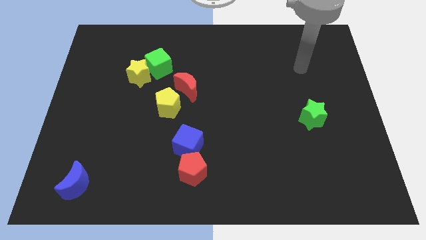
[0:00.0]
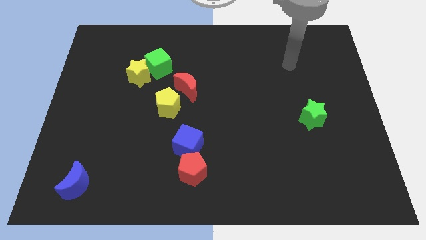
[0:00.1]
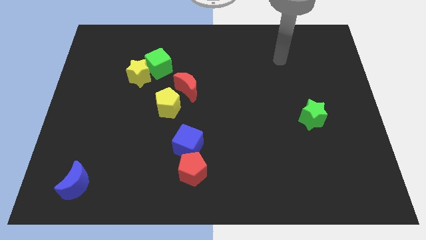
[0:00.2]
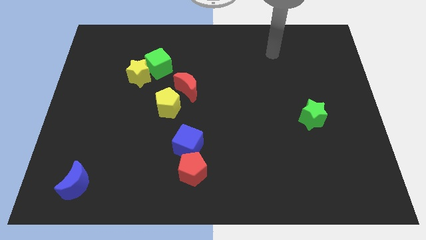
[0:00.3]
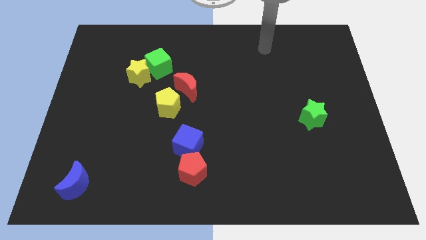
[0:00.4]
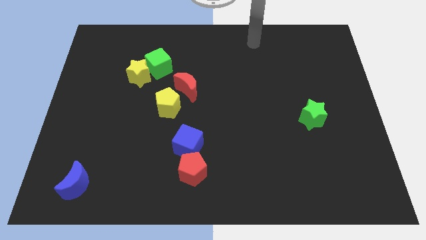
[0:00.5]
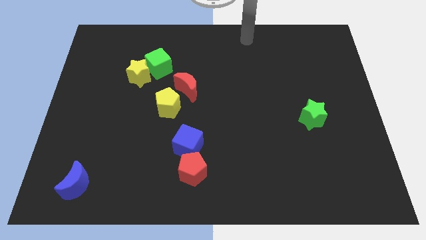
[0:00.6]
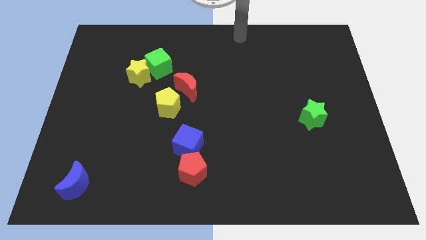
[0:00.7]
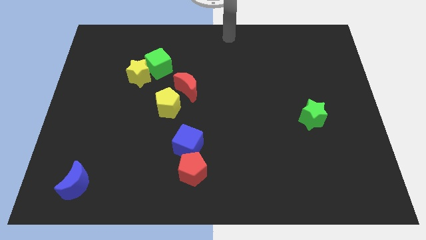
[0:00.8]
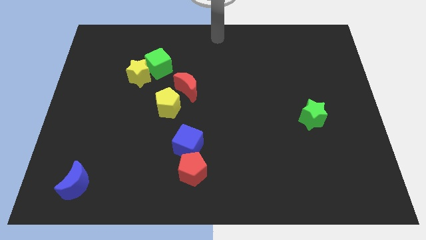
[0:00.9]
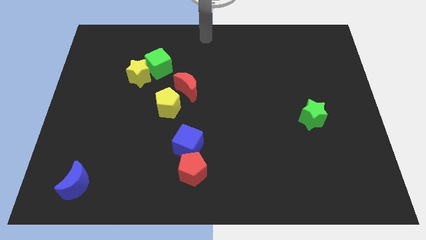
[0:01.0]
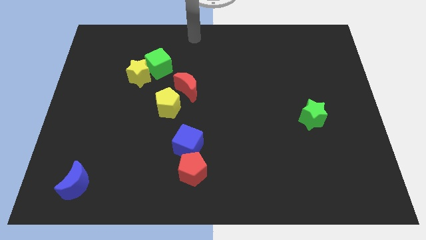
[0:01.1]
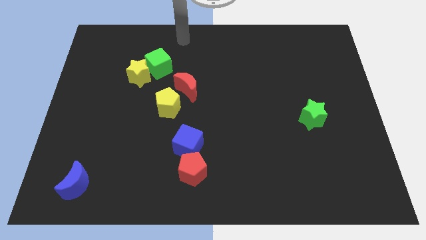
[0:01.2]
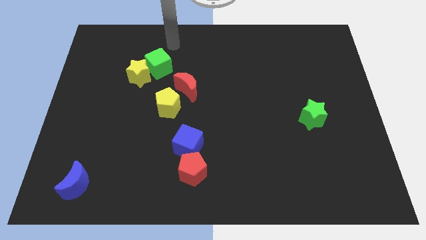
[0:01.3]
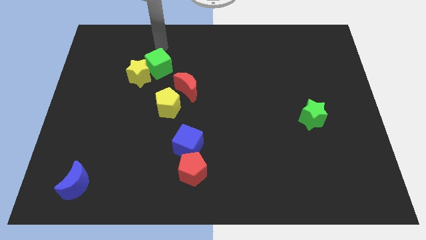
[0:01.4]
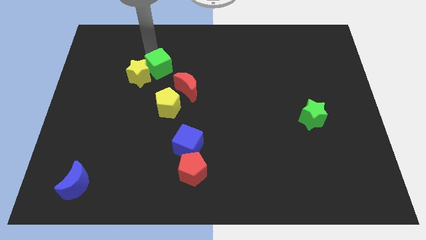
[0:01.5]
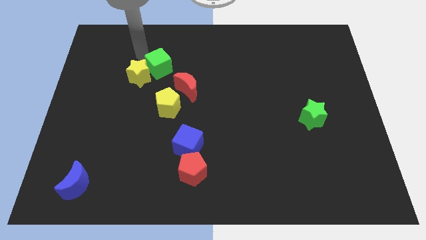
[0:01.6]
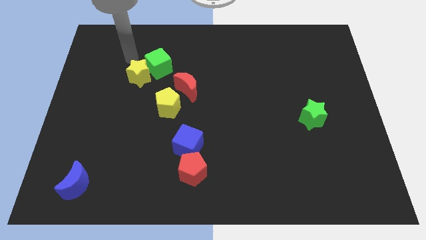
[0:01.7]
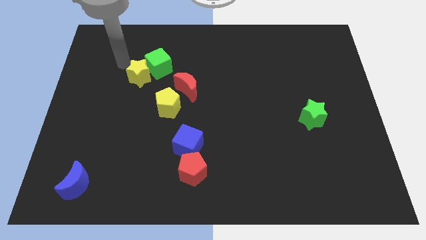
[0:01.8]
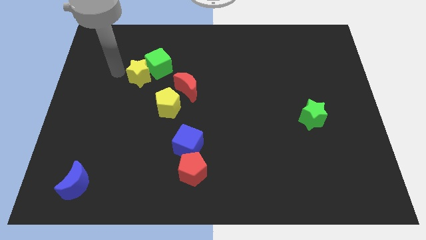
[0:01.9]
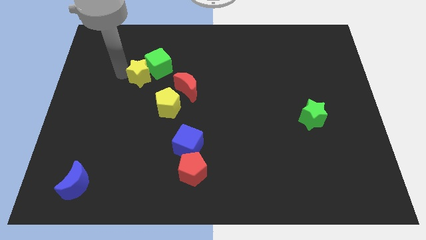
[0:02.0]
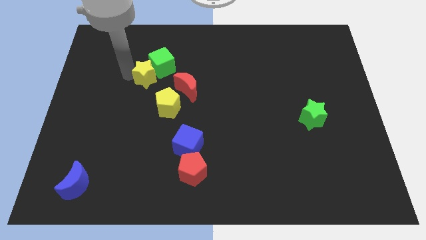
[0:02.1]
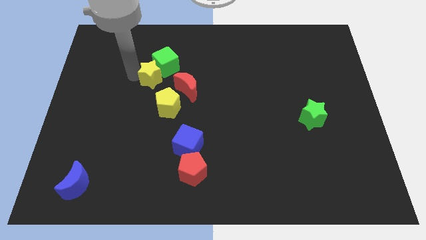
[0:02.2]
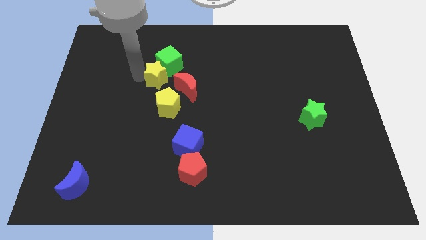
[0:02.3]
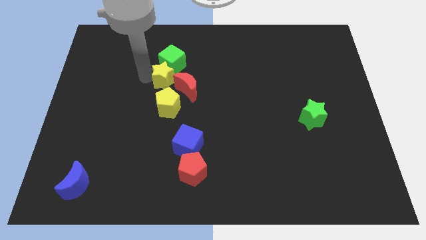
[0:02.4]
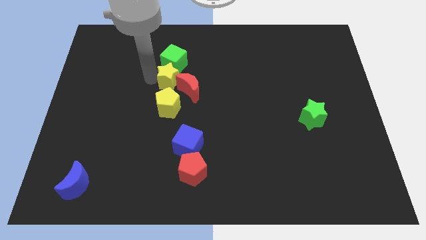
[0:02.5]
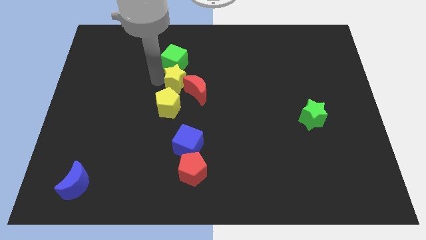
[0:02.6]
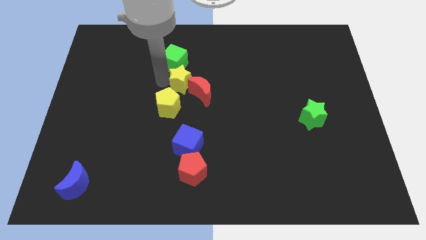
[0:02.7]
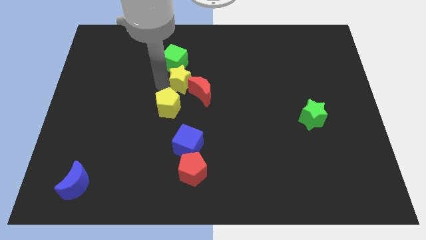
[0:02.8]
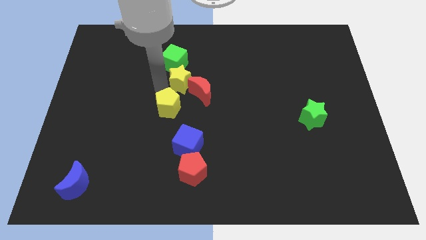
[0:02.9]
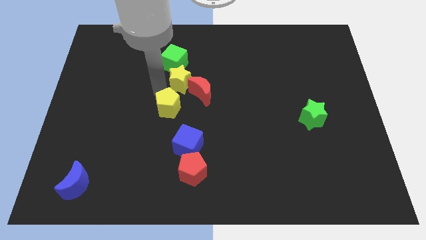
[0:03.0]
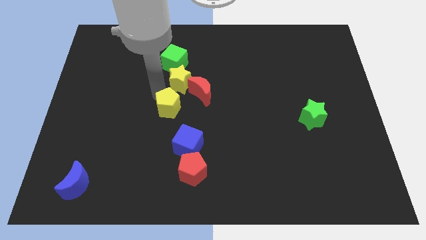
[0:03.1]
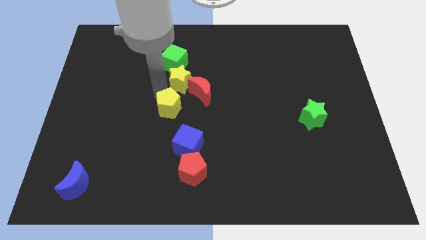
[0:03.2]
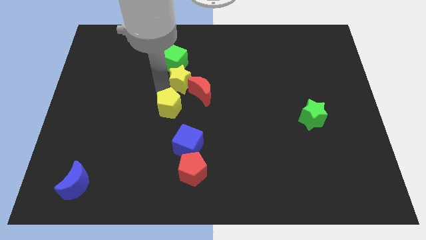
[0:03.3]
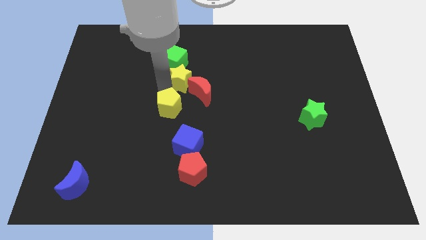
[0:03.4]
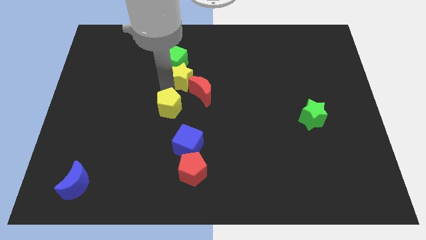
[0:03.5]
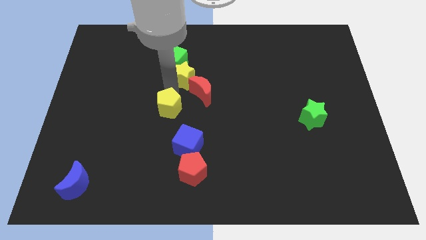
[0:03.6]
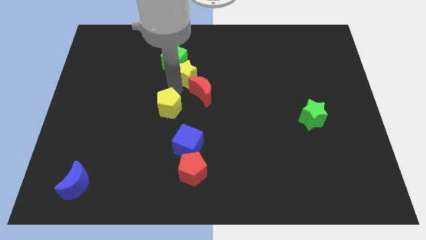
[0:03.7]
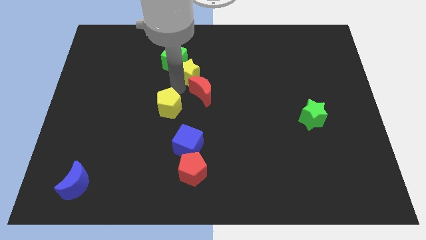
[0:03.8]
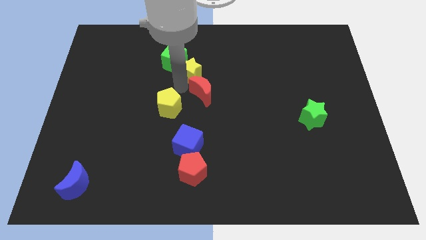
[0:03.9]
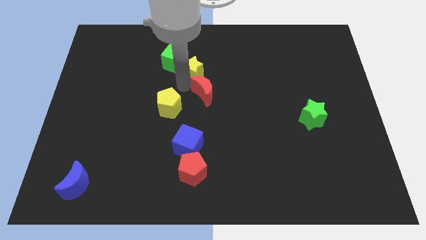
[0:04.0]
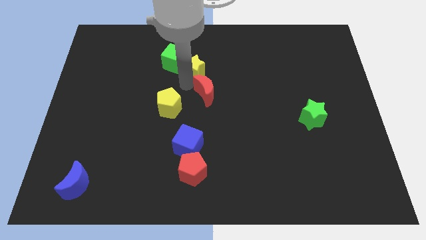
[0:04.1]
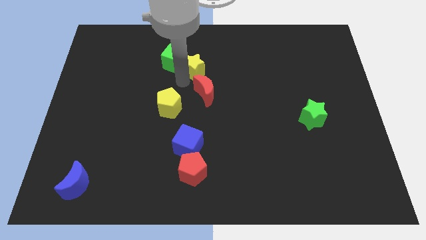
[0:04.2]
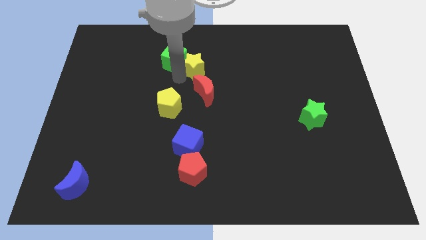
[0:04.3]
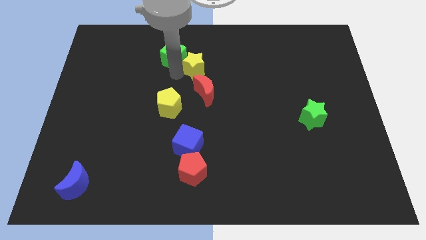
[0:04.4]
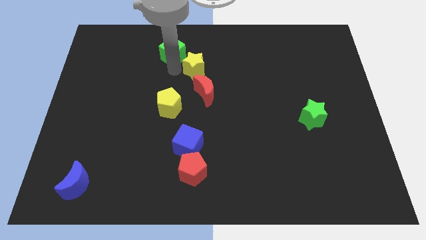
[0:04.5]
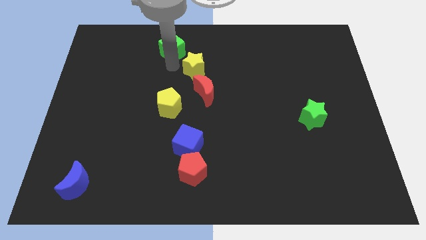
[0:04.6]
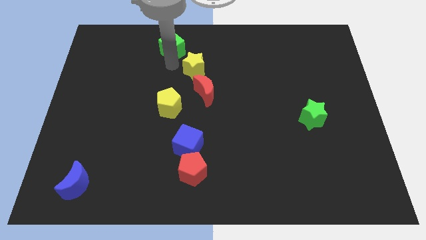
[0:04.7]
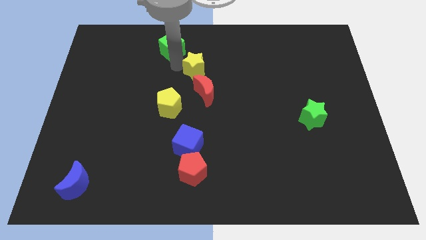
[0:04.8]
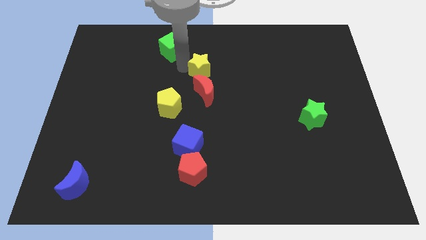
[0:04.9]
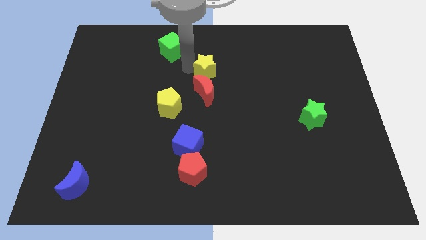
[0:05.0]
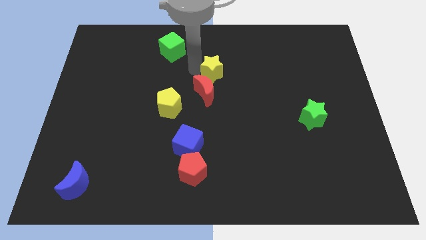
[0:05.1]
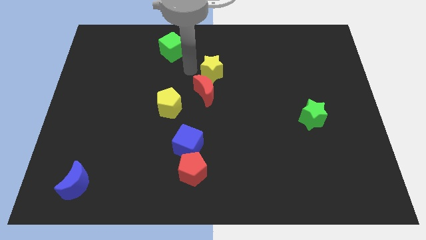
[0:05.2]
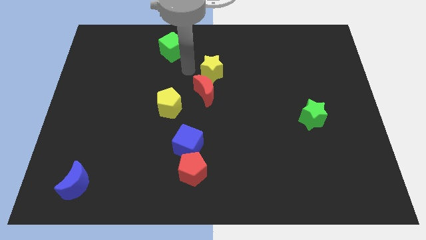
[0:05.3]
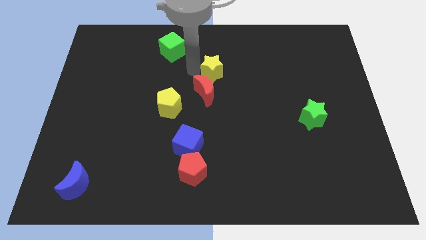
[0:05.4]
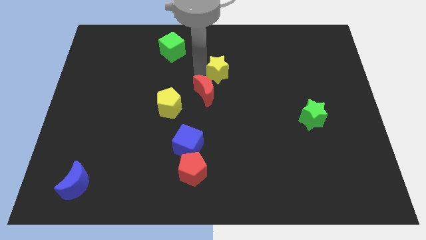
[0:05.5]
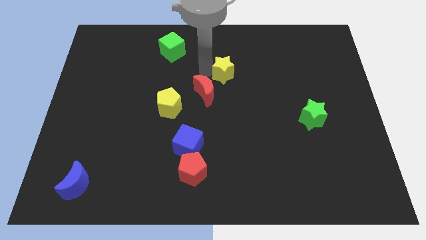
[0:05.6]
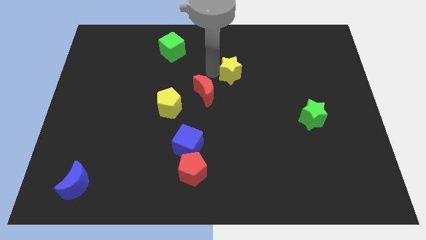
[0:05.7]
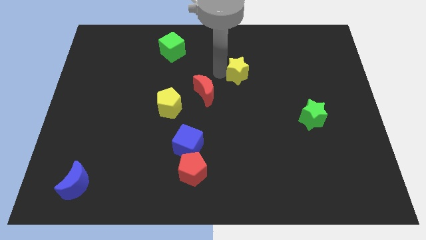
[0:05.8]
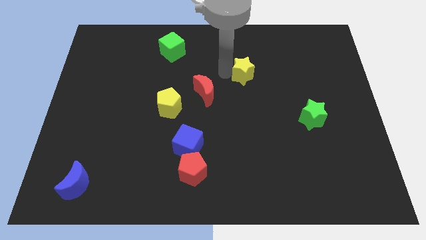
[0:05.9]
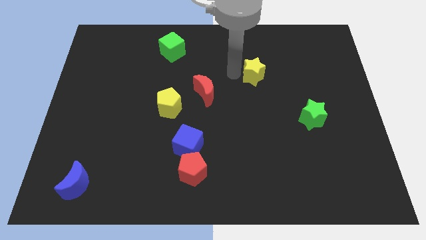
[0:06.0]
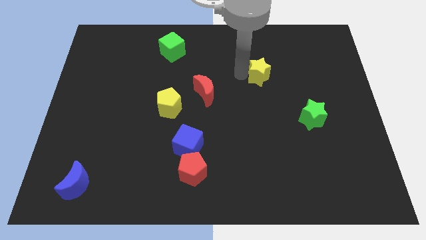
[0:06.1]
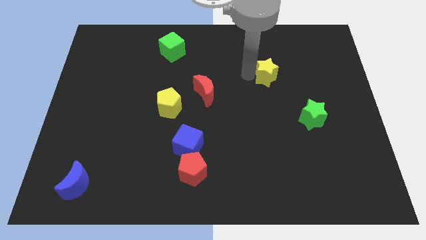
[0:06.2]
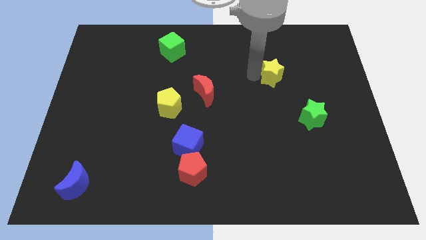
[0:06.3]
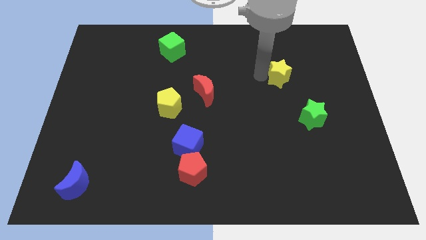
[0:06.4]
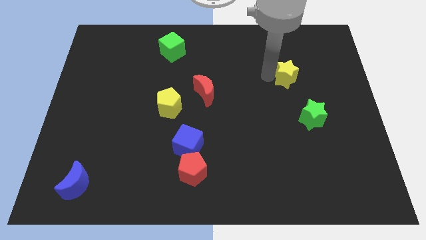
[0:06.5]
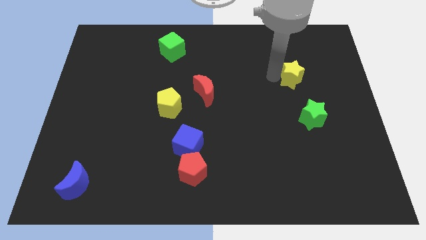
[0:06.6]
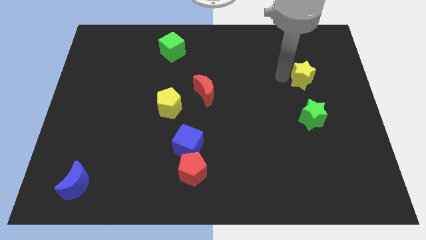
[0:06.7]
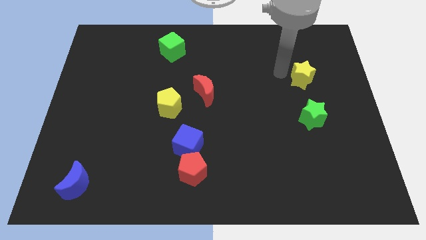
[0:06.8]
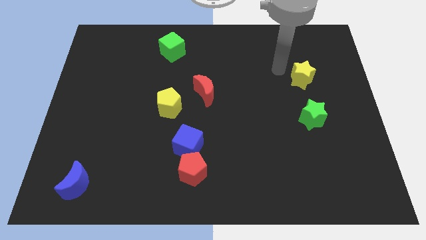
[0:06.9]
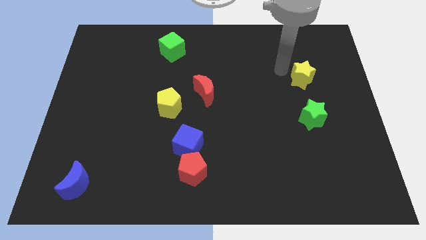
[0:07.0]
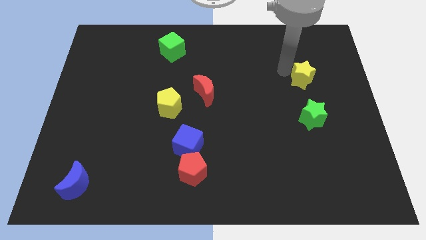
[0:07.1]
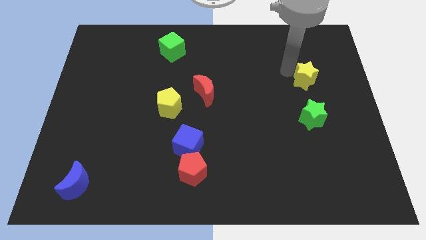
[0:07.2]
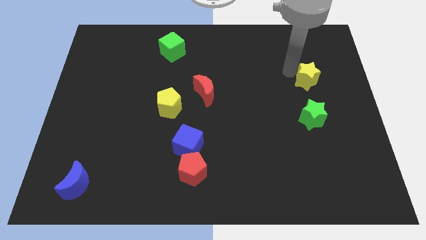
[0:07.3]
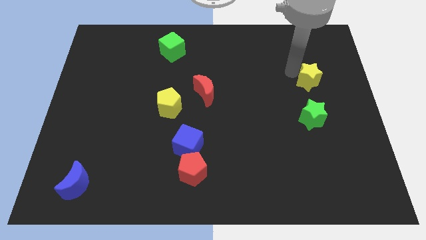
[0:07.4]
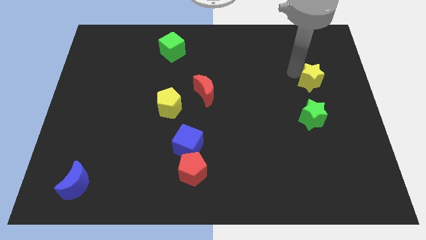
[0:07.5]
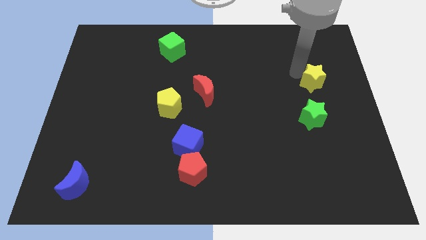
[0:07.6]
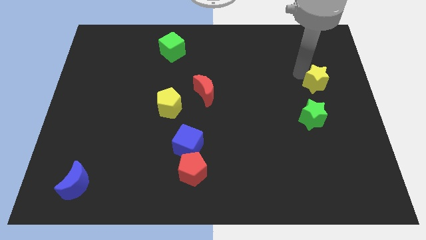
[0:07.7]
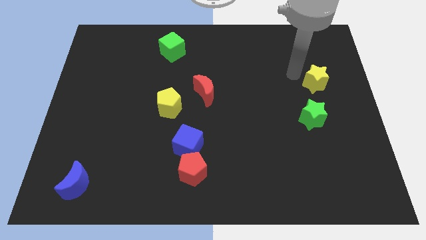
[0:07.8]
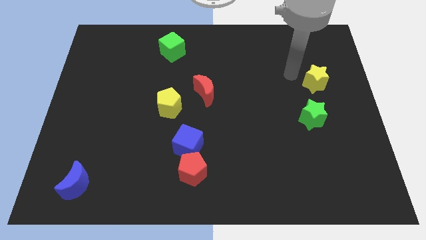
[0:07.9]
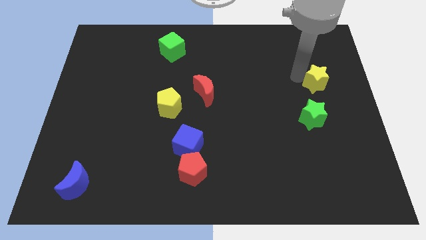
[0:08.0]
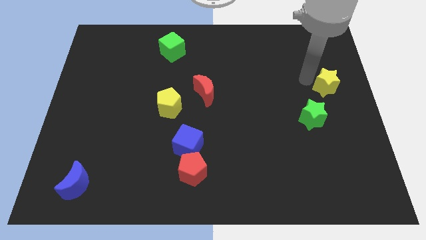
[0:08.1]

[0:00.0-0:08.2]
move the yellow star to the right side
